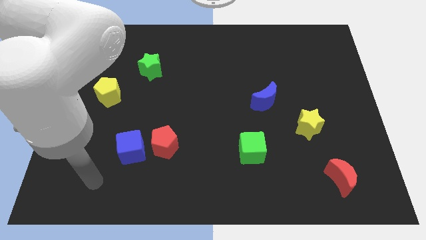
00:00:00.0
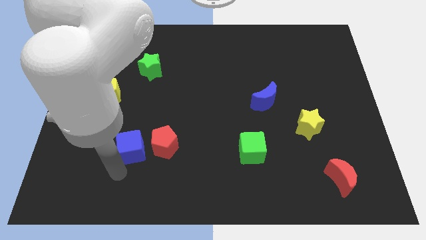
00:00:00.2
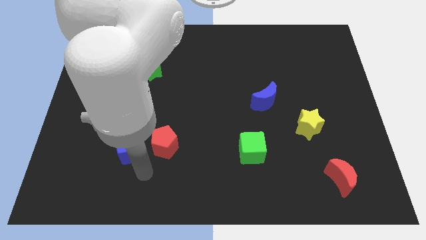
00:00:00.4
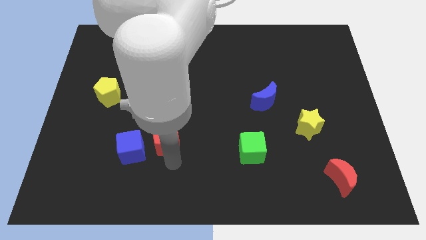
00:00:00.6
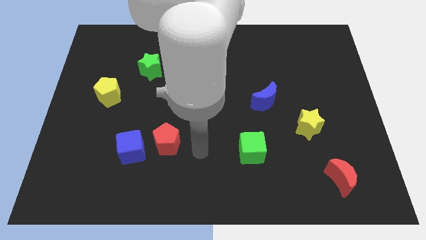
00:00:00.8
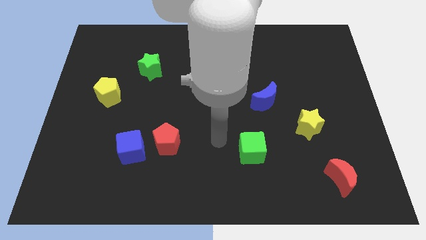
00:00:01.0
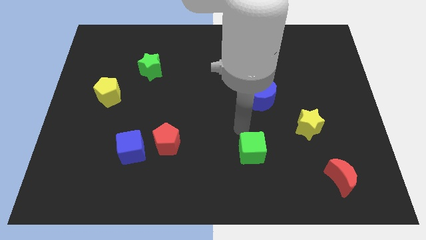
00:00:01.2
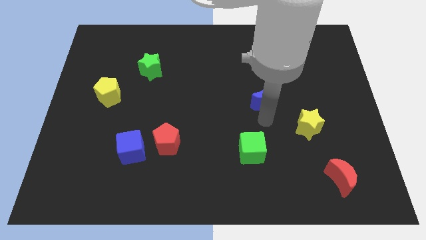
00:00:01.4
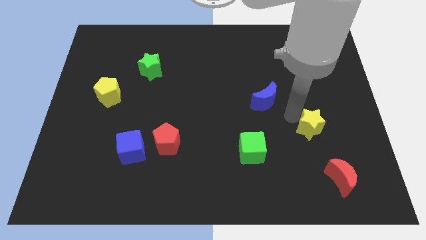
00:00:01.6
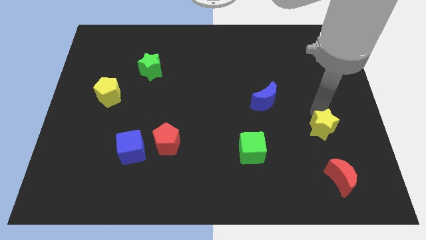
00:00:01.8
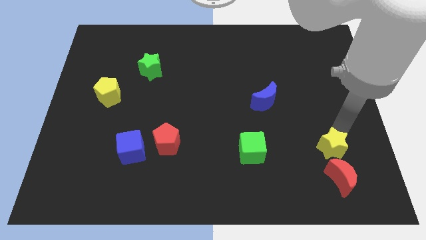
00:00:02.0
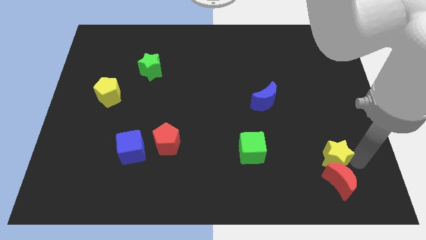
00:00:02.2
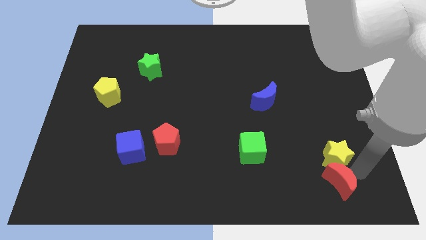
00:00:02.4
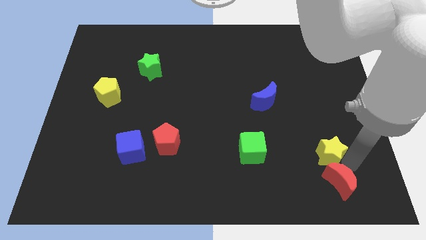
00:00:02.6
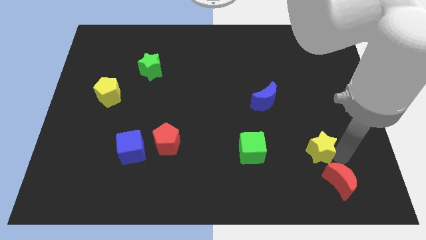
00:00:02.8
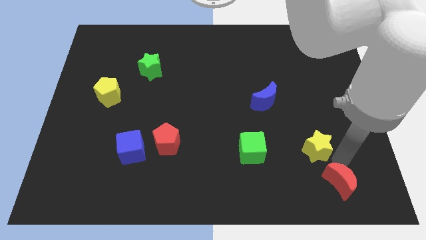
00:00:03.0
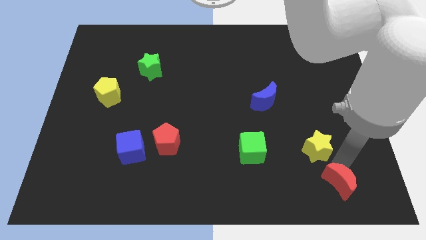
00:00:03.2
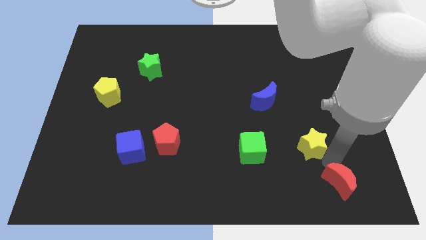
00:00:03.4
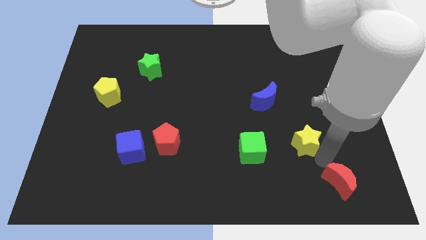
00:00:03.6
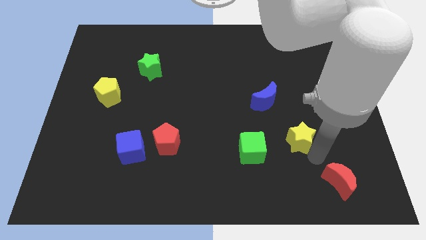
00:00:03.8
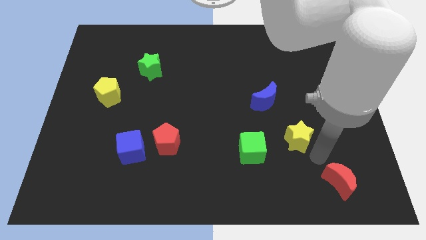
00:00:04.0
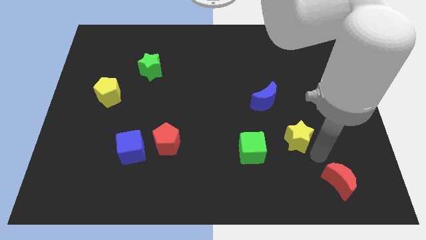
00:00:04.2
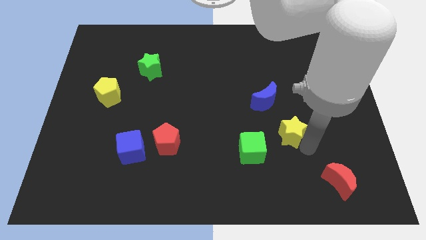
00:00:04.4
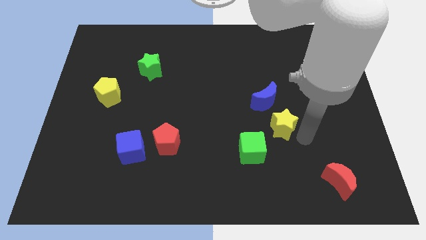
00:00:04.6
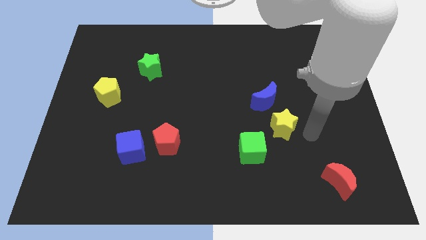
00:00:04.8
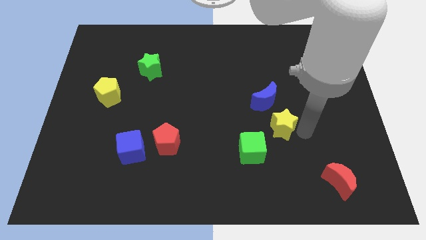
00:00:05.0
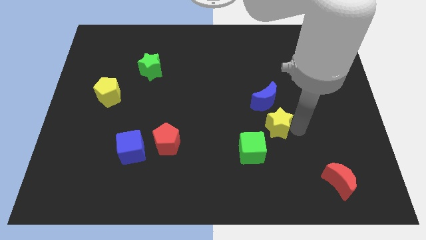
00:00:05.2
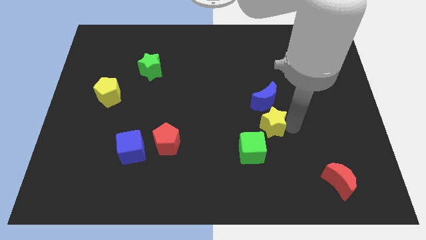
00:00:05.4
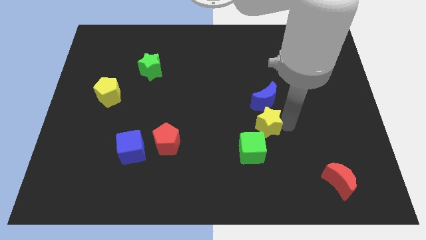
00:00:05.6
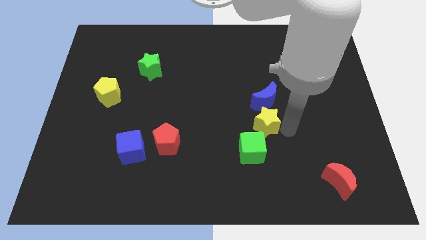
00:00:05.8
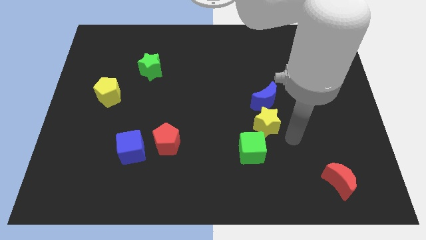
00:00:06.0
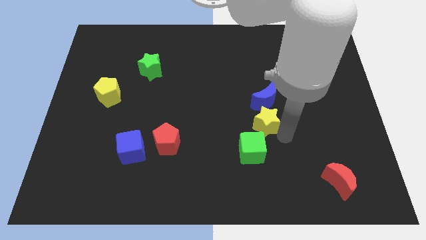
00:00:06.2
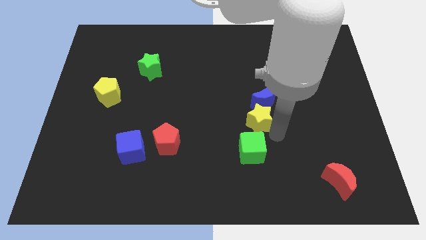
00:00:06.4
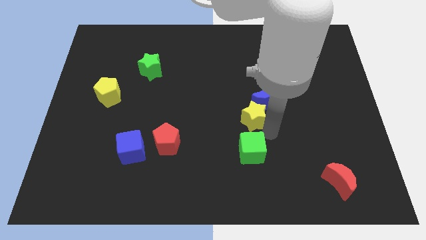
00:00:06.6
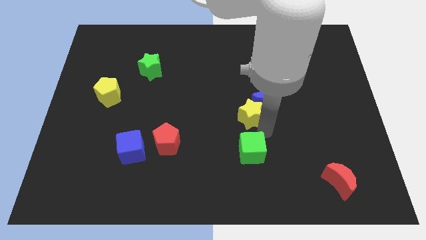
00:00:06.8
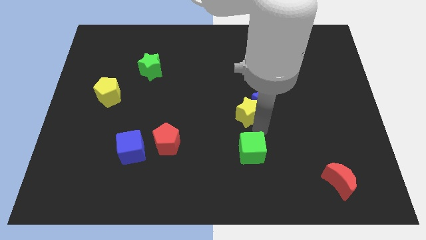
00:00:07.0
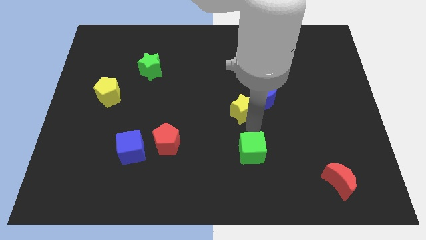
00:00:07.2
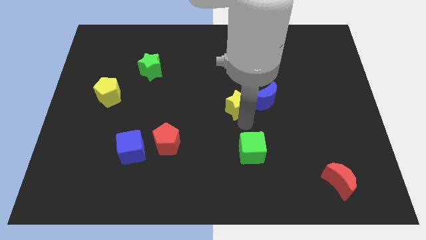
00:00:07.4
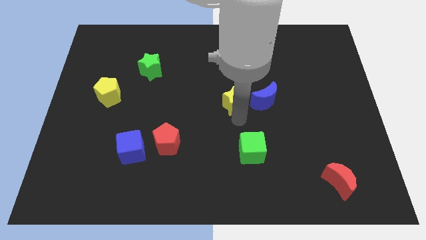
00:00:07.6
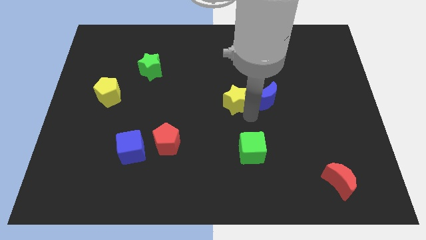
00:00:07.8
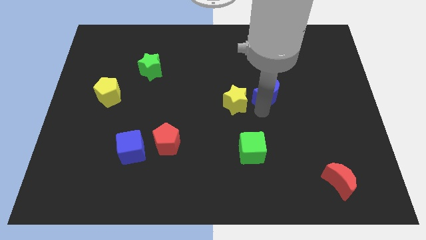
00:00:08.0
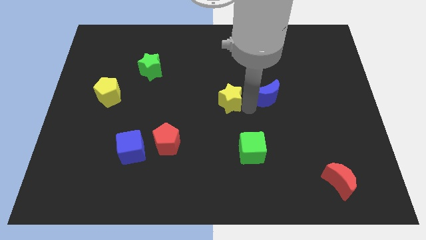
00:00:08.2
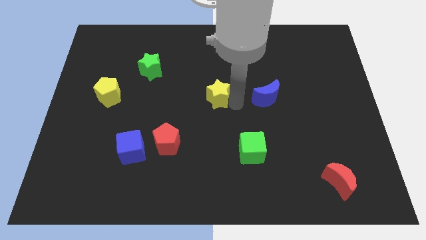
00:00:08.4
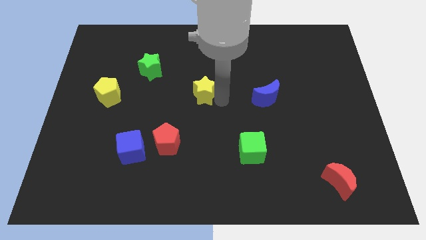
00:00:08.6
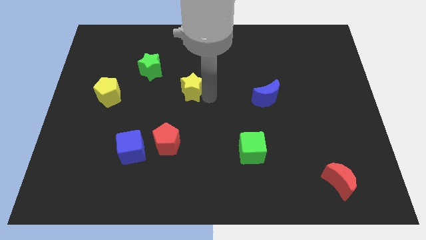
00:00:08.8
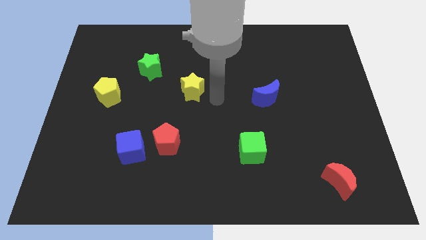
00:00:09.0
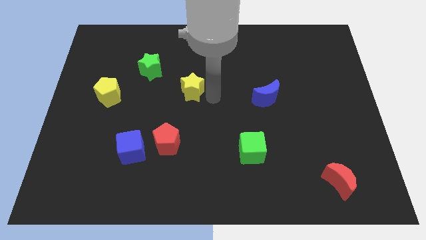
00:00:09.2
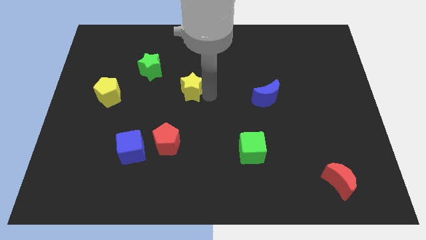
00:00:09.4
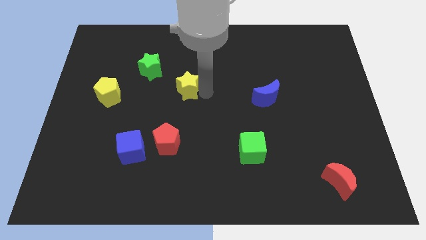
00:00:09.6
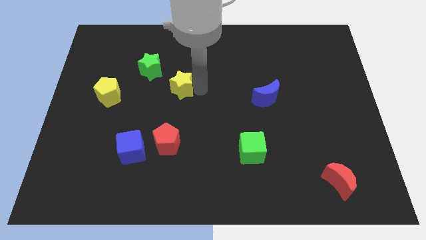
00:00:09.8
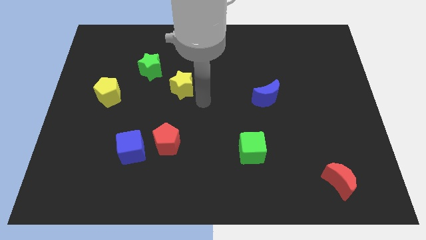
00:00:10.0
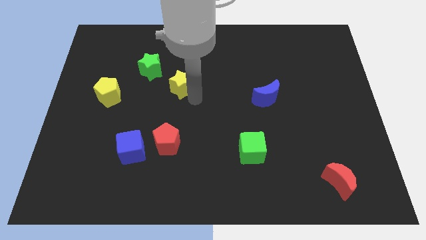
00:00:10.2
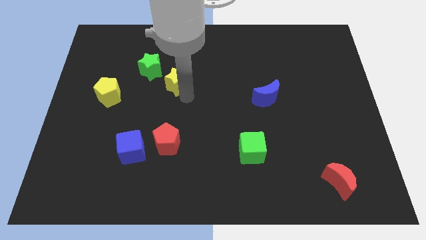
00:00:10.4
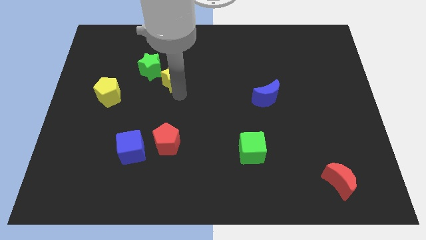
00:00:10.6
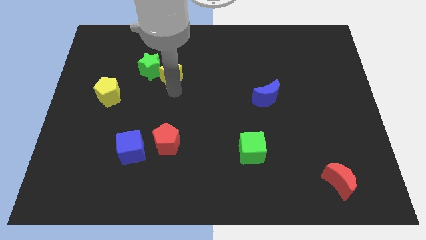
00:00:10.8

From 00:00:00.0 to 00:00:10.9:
move the yellow star to the green star

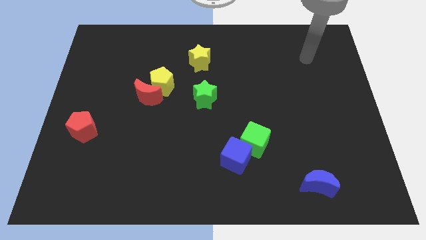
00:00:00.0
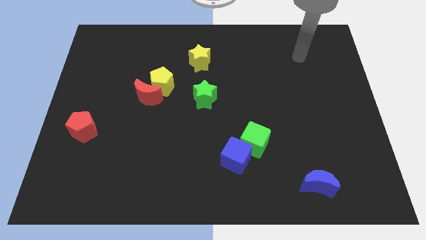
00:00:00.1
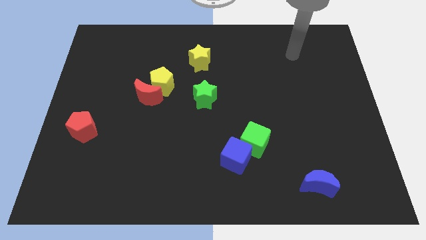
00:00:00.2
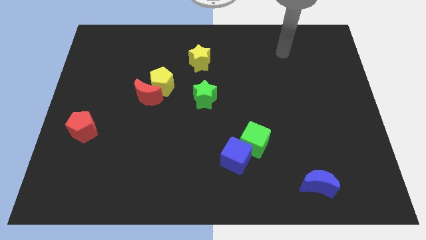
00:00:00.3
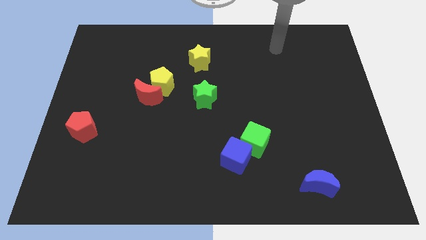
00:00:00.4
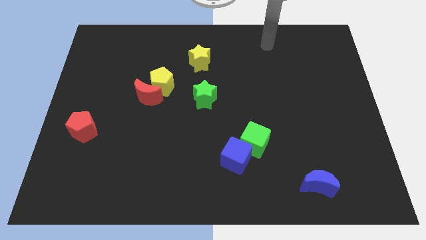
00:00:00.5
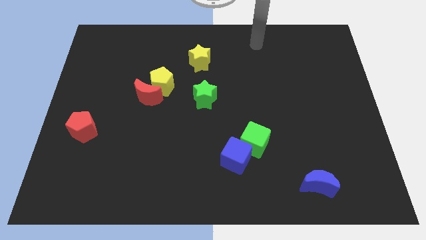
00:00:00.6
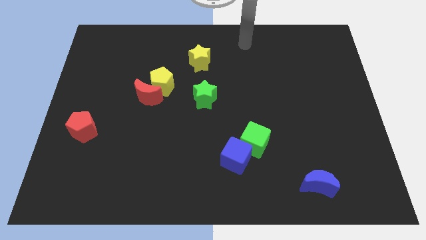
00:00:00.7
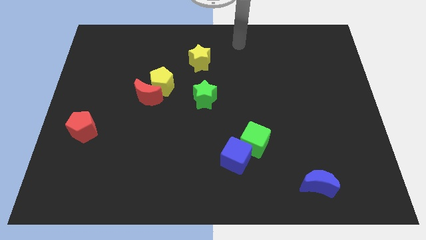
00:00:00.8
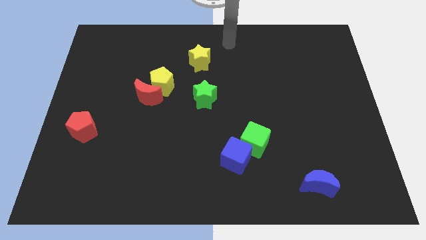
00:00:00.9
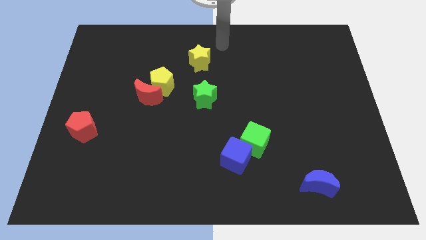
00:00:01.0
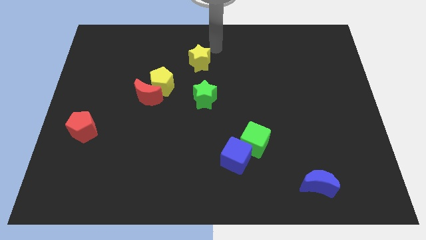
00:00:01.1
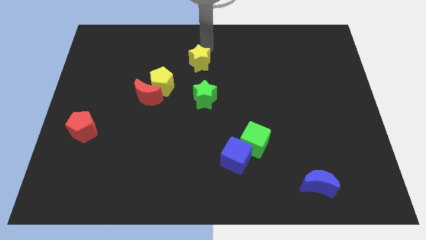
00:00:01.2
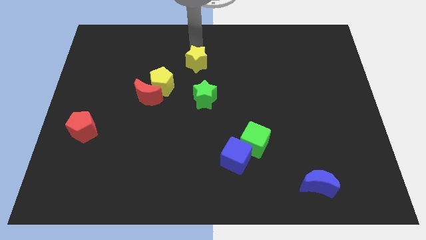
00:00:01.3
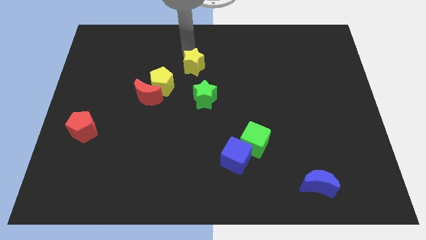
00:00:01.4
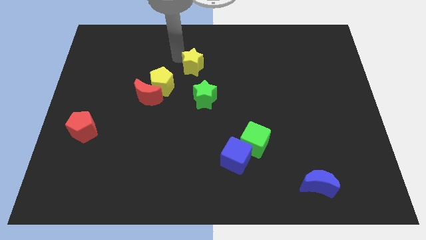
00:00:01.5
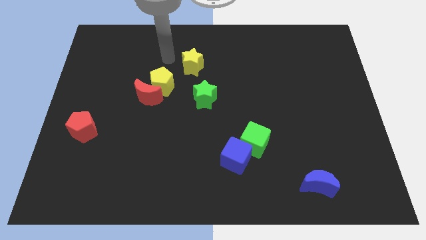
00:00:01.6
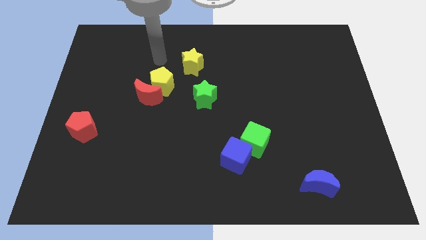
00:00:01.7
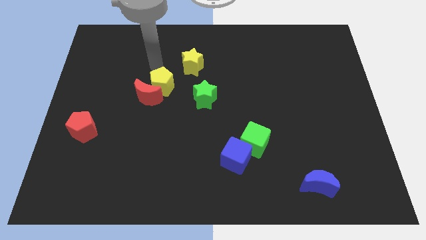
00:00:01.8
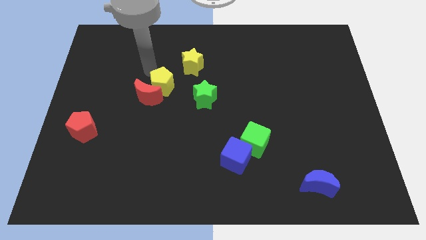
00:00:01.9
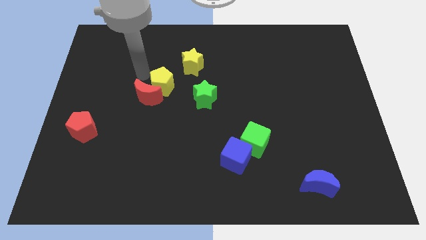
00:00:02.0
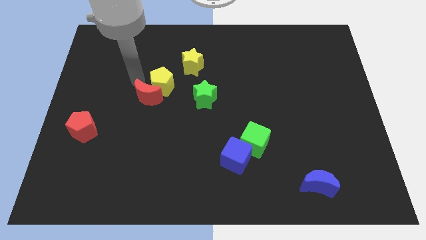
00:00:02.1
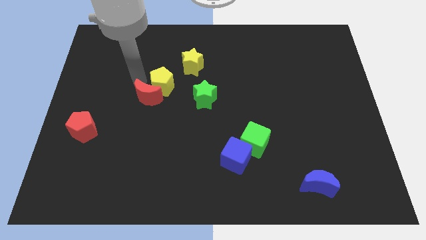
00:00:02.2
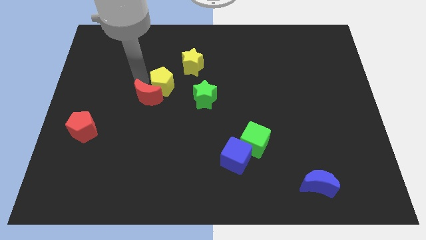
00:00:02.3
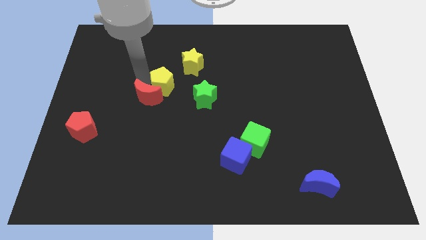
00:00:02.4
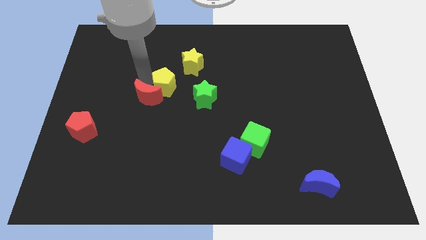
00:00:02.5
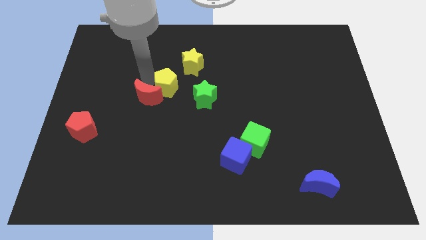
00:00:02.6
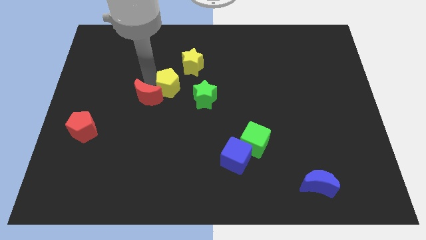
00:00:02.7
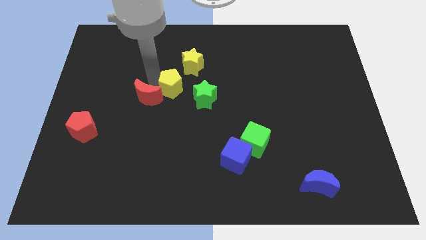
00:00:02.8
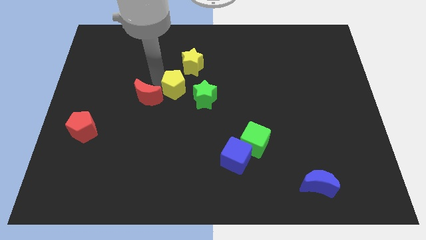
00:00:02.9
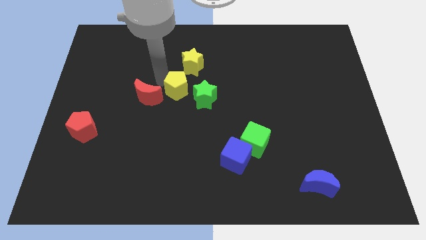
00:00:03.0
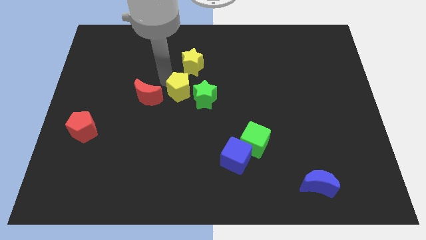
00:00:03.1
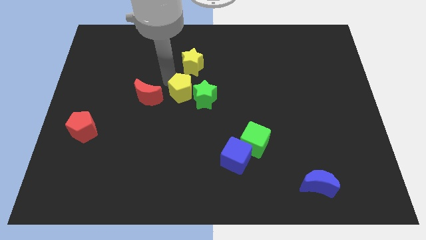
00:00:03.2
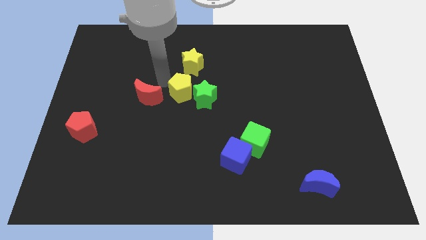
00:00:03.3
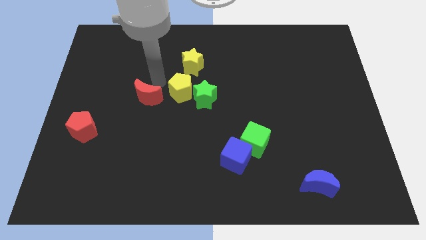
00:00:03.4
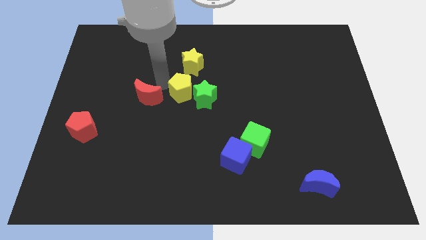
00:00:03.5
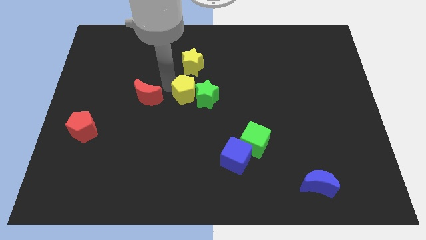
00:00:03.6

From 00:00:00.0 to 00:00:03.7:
put the yellow pentagon next to the green star
